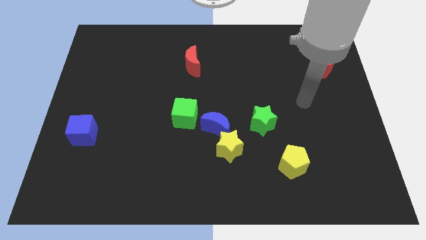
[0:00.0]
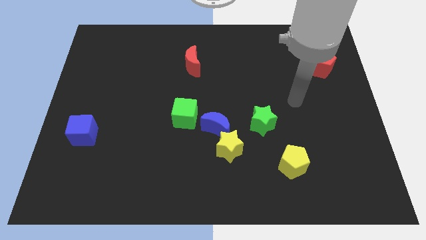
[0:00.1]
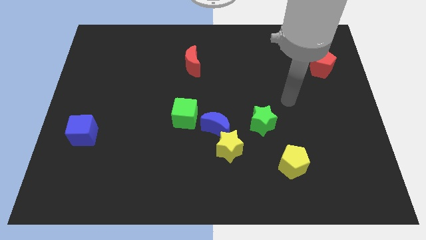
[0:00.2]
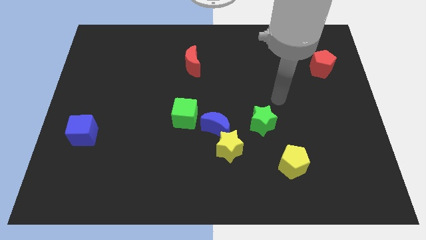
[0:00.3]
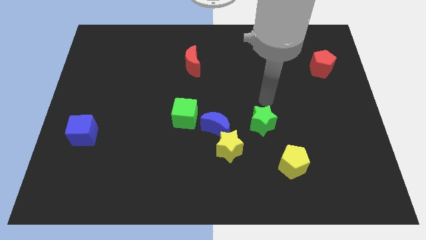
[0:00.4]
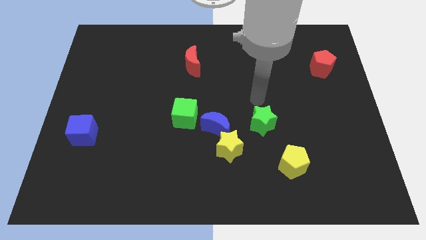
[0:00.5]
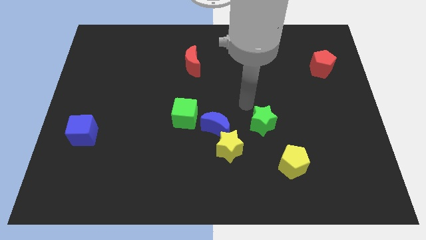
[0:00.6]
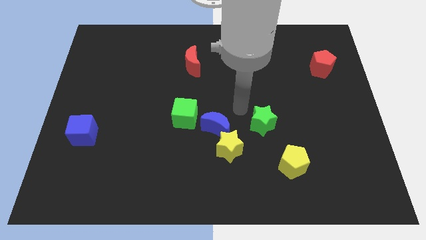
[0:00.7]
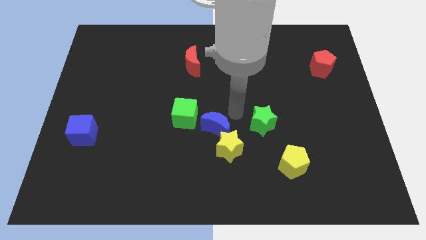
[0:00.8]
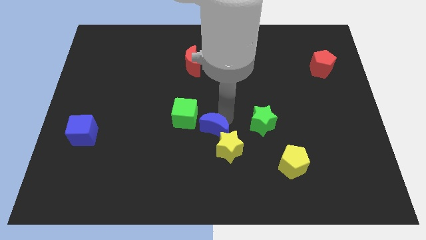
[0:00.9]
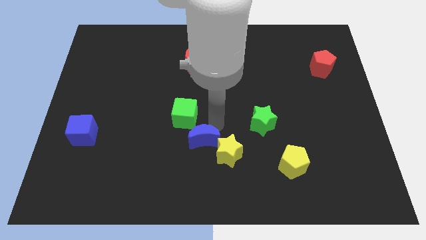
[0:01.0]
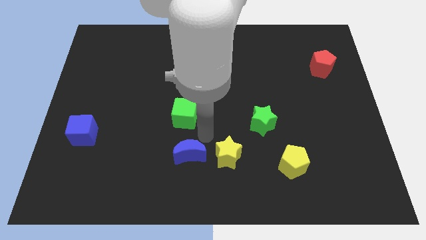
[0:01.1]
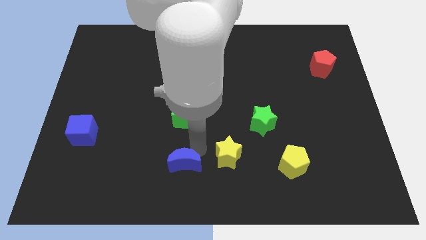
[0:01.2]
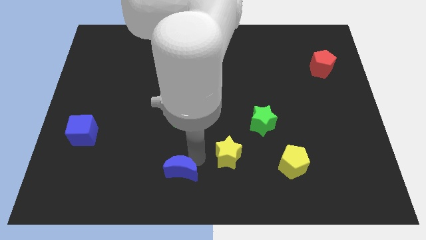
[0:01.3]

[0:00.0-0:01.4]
separate the yellow star from the blue moon

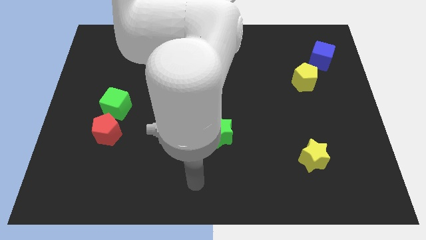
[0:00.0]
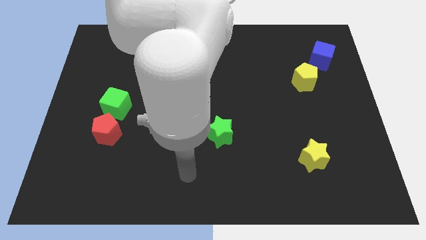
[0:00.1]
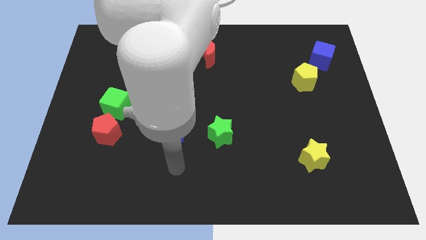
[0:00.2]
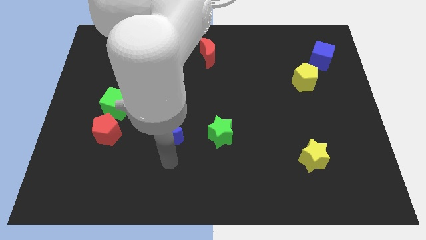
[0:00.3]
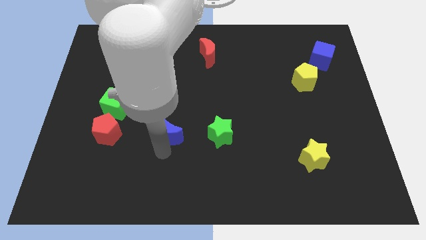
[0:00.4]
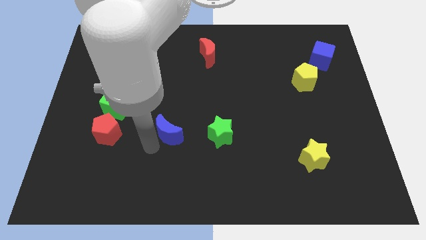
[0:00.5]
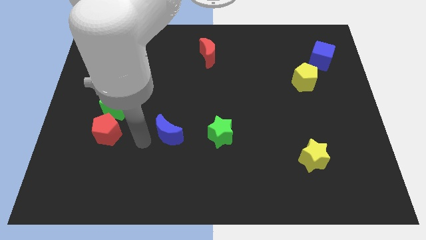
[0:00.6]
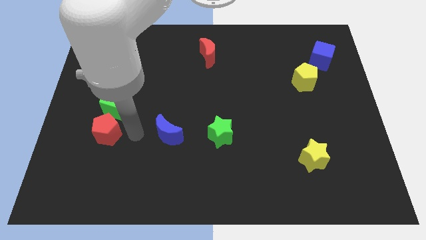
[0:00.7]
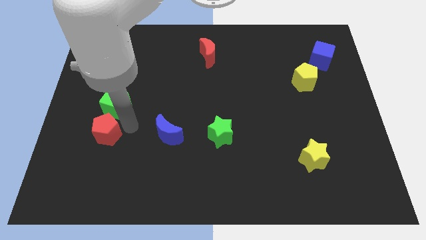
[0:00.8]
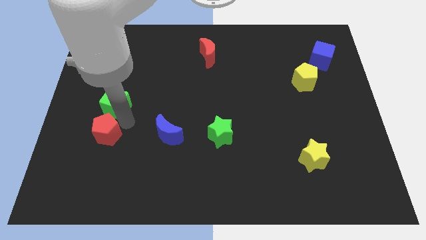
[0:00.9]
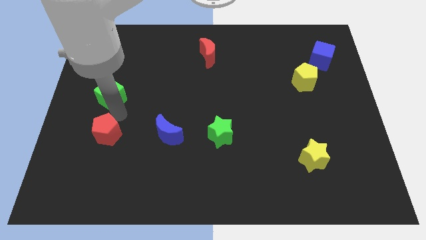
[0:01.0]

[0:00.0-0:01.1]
separate the red pentagon from the green cube

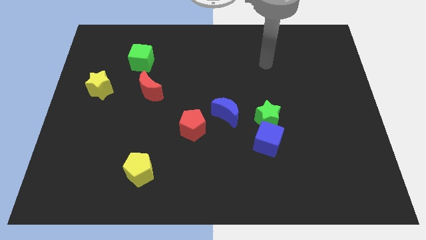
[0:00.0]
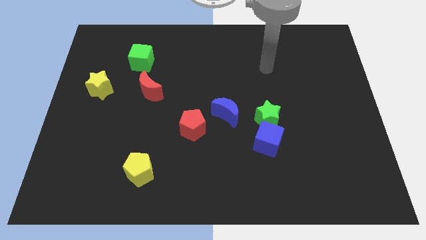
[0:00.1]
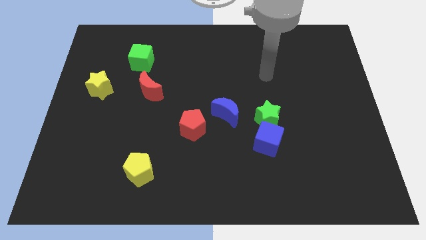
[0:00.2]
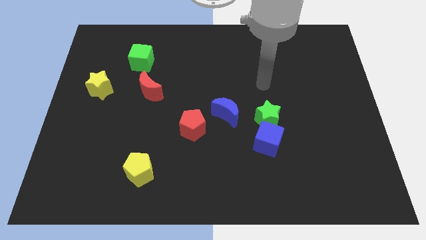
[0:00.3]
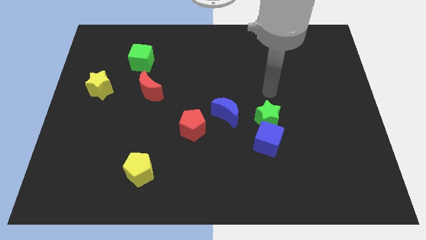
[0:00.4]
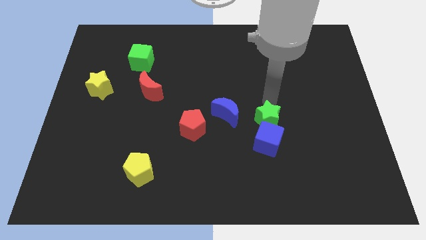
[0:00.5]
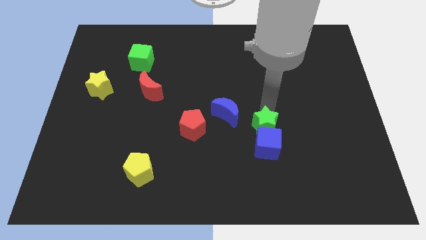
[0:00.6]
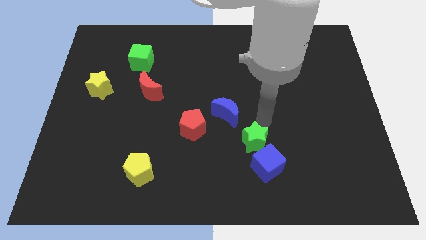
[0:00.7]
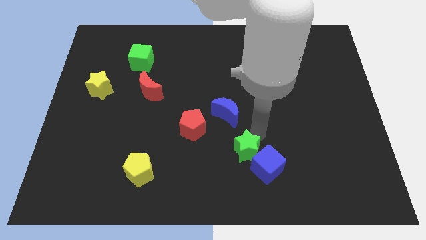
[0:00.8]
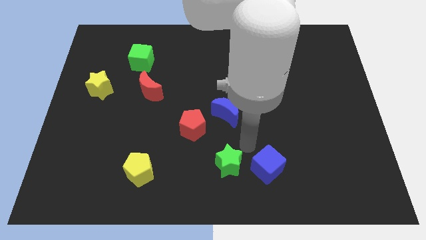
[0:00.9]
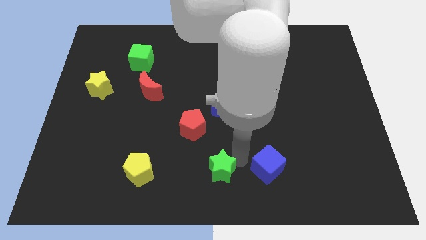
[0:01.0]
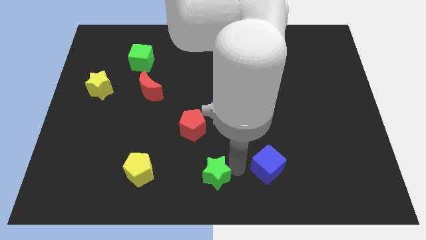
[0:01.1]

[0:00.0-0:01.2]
separate the blue cube from the green star

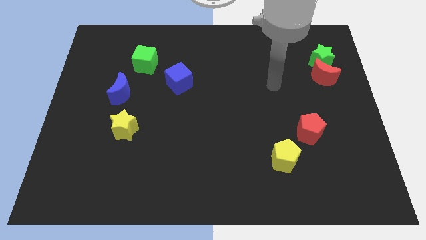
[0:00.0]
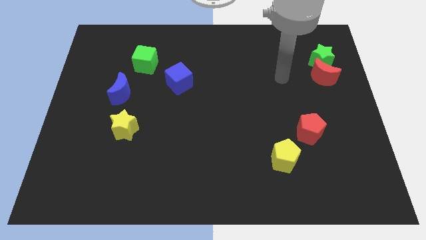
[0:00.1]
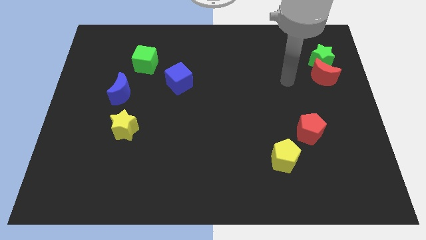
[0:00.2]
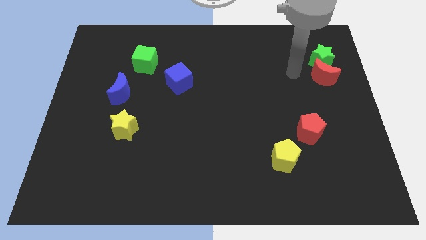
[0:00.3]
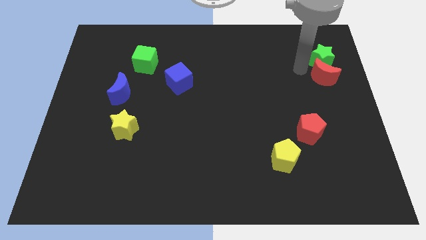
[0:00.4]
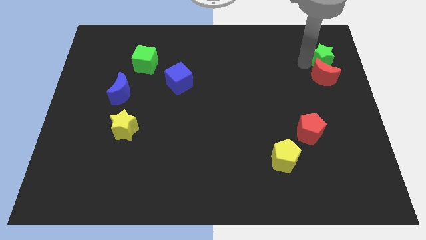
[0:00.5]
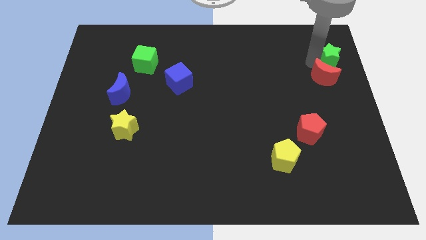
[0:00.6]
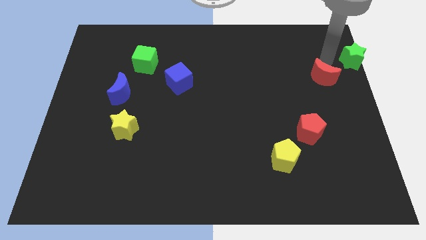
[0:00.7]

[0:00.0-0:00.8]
separate the red moon from the green star

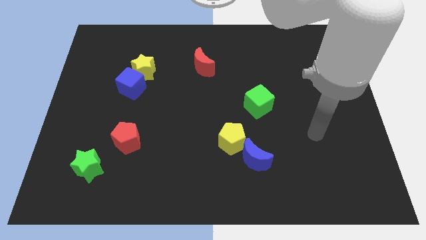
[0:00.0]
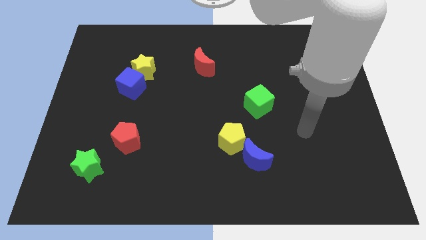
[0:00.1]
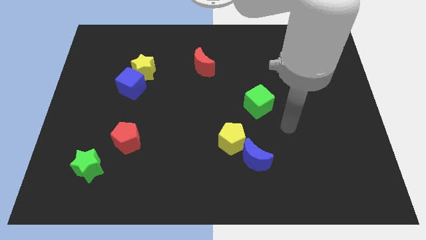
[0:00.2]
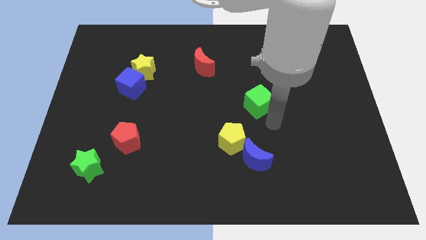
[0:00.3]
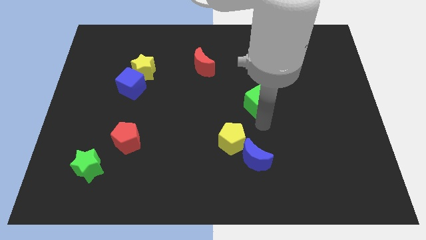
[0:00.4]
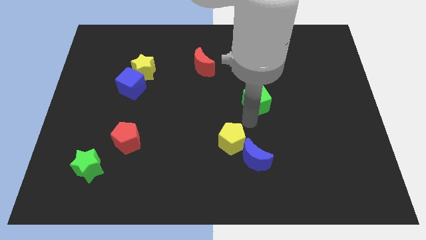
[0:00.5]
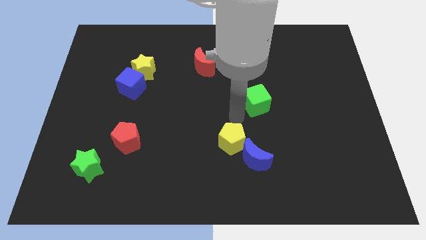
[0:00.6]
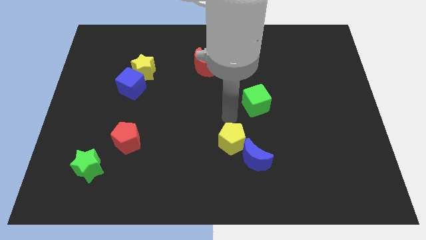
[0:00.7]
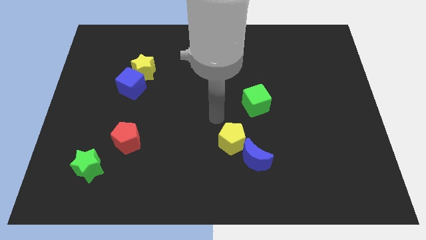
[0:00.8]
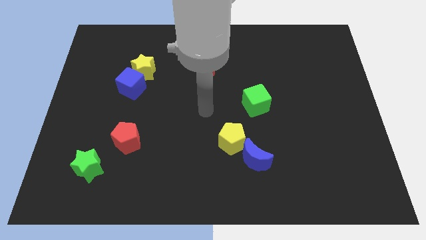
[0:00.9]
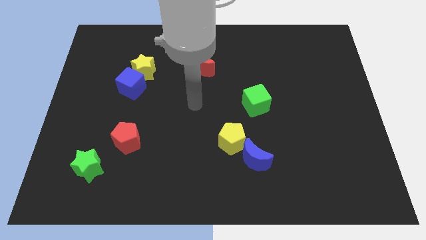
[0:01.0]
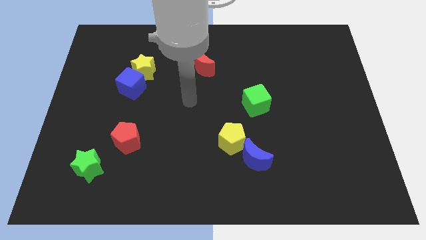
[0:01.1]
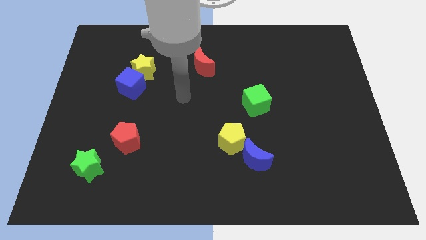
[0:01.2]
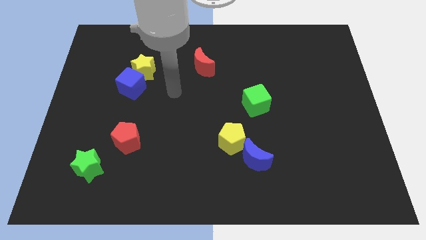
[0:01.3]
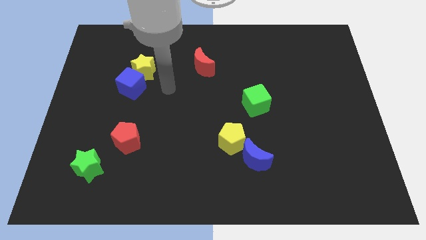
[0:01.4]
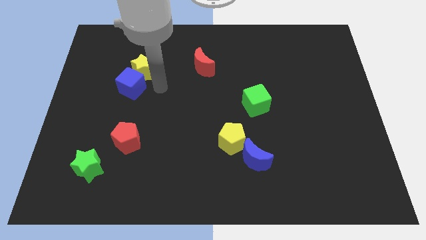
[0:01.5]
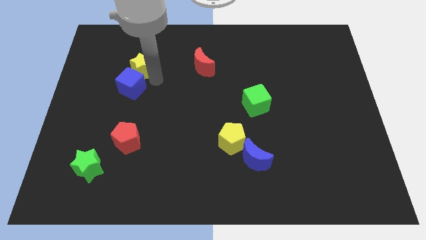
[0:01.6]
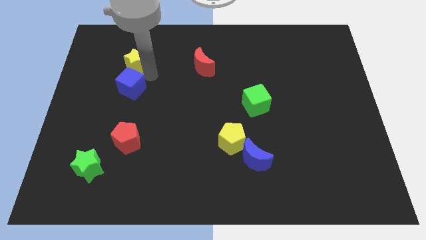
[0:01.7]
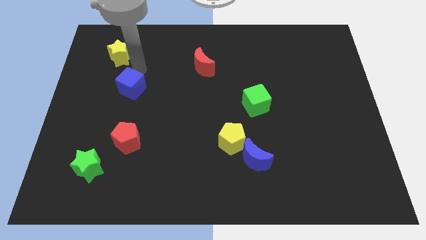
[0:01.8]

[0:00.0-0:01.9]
move the blue cube away from the yellow star

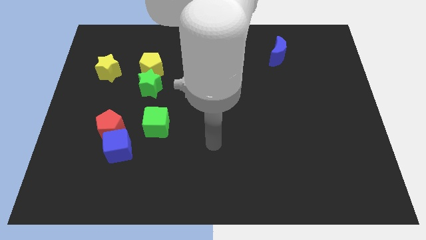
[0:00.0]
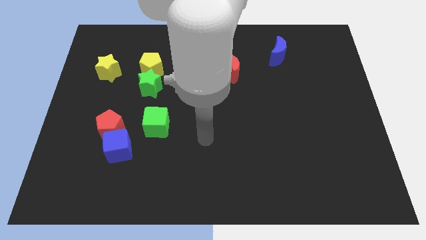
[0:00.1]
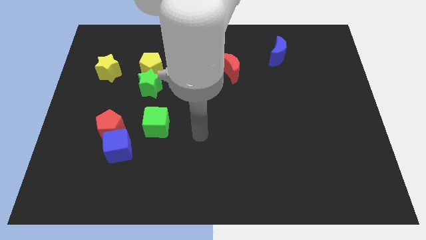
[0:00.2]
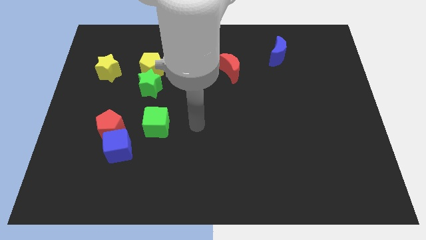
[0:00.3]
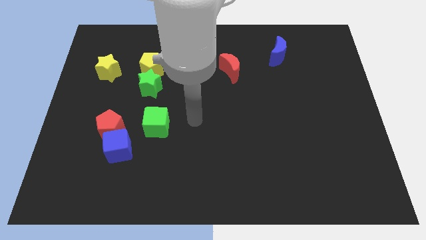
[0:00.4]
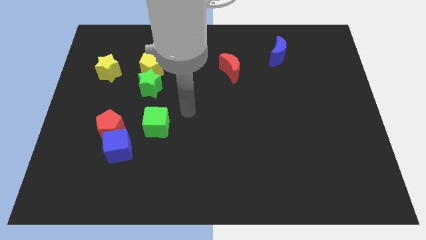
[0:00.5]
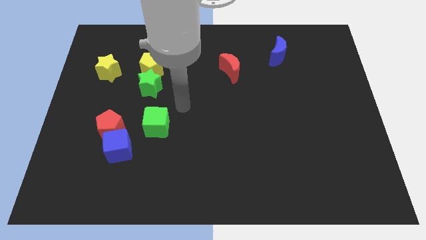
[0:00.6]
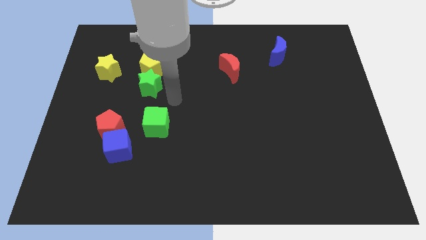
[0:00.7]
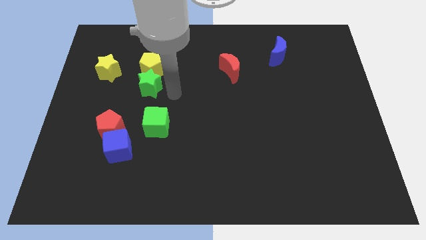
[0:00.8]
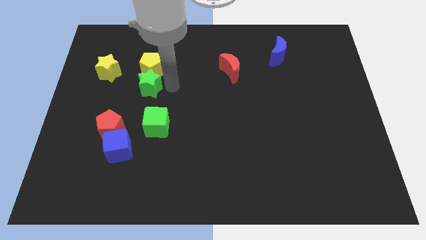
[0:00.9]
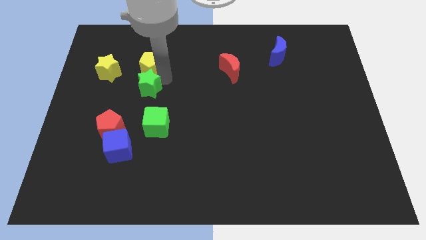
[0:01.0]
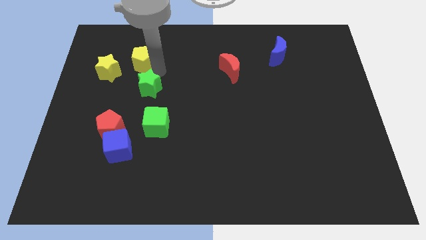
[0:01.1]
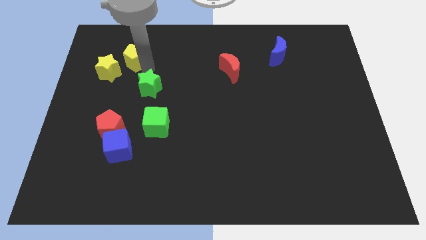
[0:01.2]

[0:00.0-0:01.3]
move the green star away from the yellow pentagon

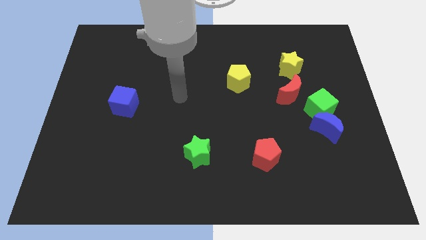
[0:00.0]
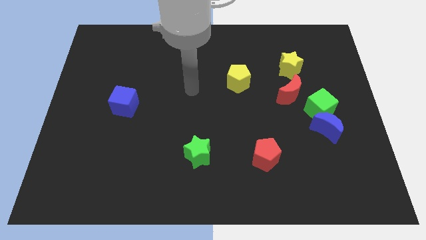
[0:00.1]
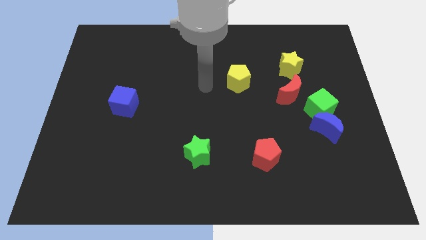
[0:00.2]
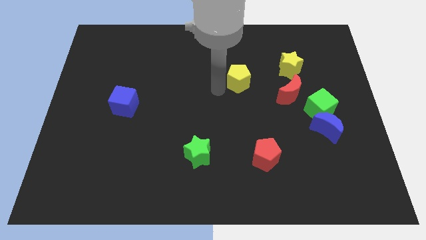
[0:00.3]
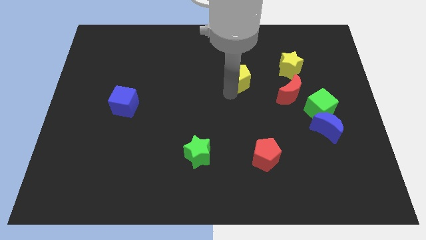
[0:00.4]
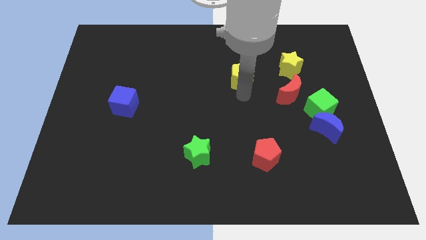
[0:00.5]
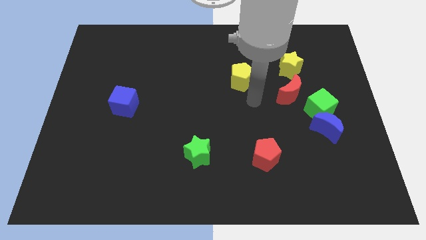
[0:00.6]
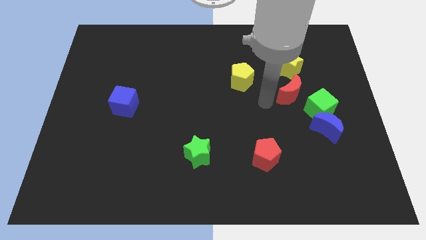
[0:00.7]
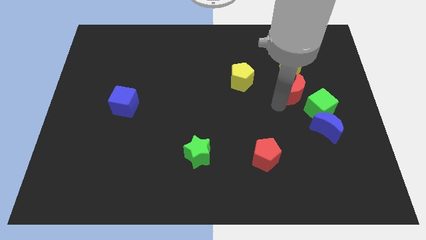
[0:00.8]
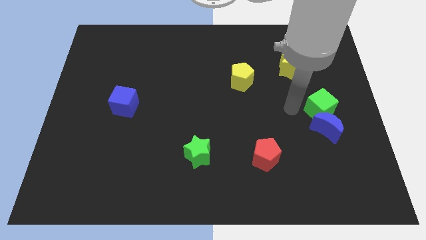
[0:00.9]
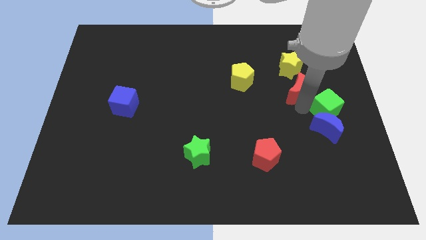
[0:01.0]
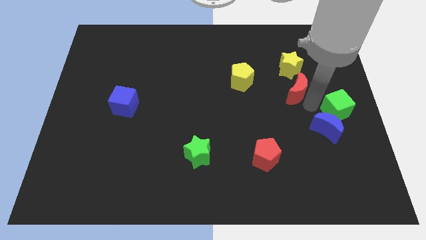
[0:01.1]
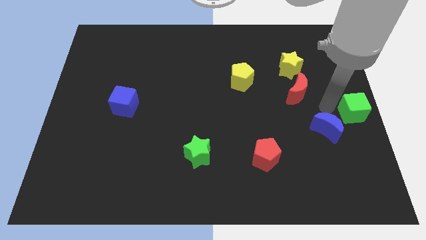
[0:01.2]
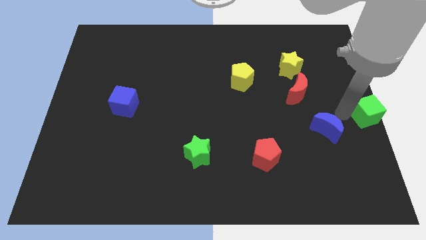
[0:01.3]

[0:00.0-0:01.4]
separate the blue moon from the green cube

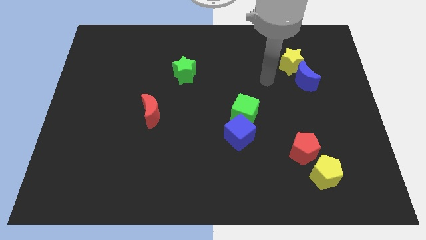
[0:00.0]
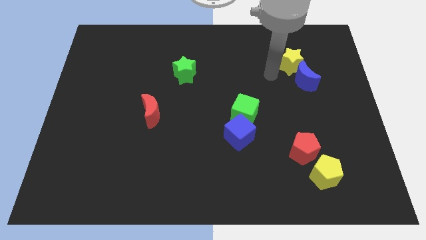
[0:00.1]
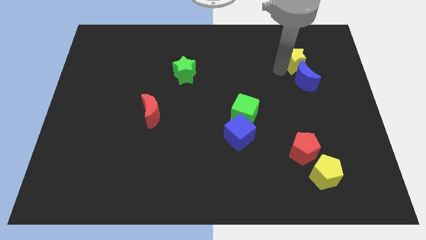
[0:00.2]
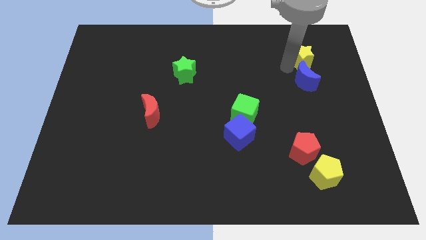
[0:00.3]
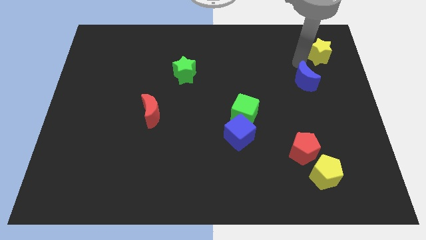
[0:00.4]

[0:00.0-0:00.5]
move the blue moon away from the yellow star
